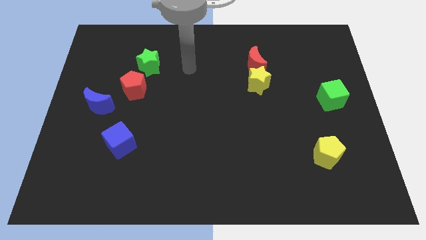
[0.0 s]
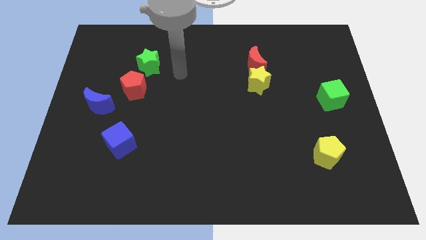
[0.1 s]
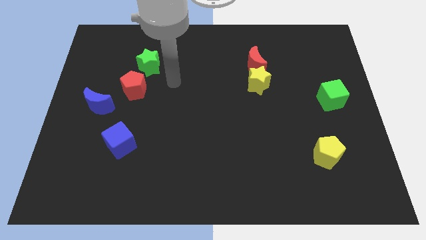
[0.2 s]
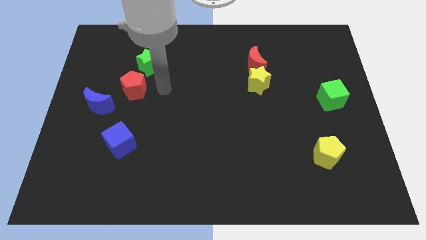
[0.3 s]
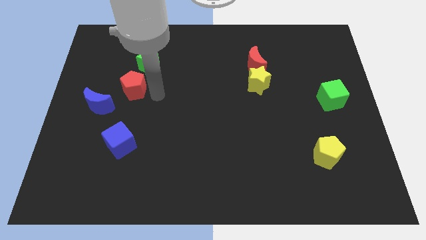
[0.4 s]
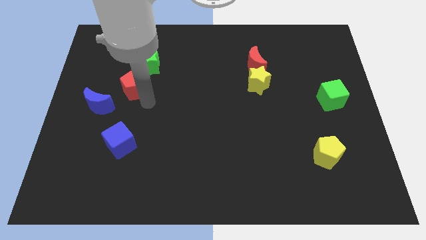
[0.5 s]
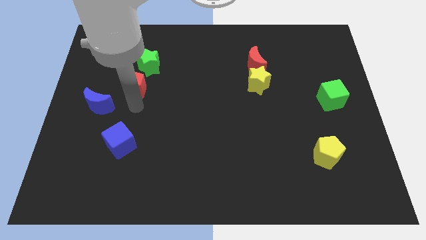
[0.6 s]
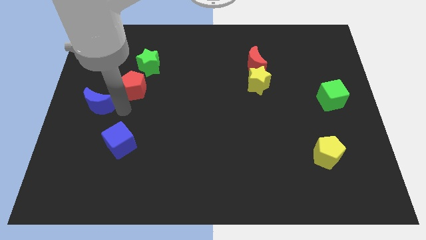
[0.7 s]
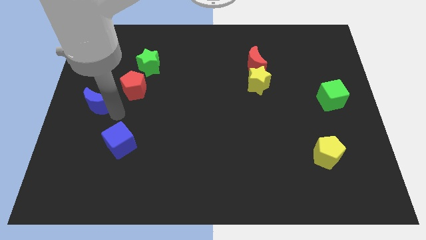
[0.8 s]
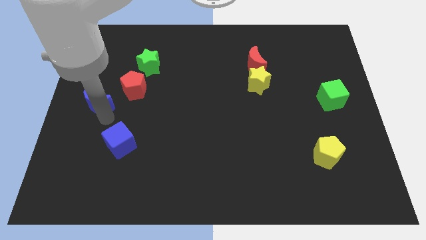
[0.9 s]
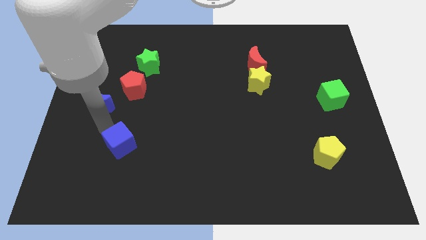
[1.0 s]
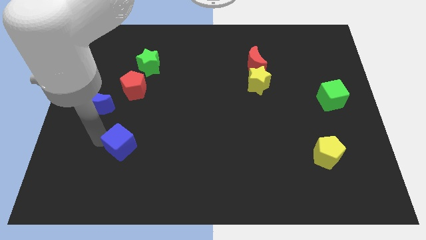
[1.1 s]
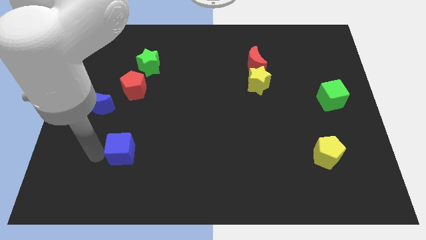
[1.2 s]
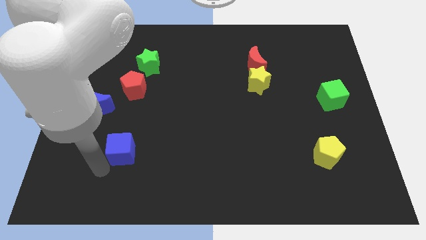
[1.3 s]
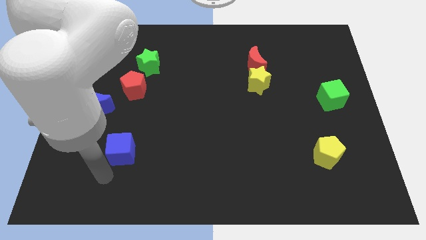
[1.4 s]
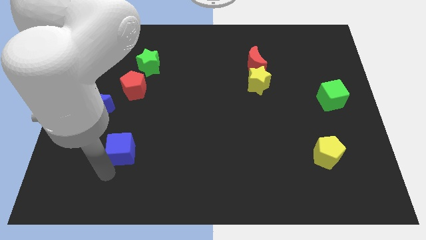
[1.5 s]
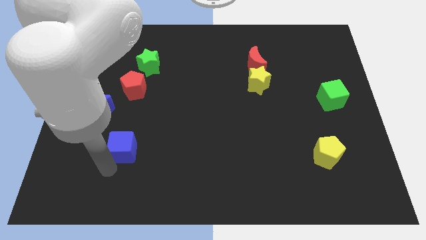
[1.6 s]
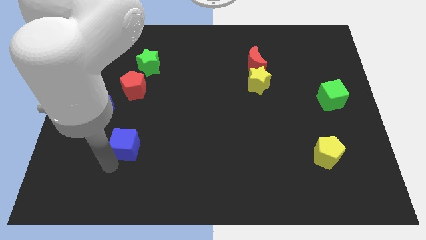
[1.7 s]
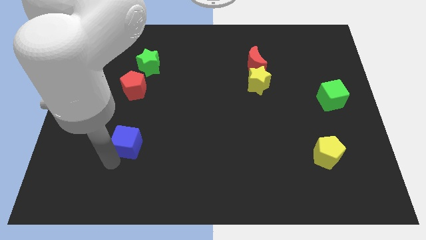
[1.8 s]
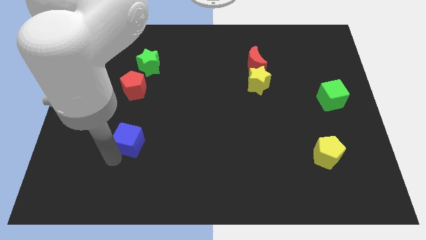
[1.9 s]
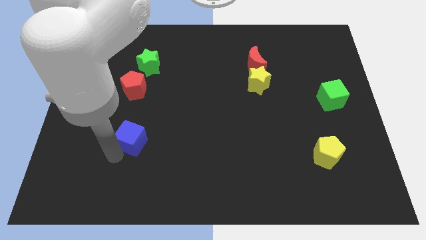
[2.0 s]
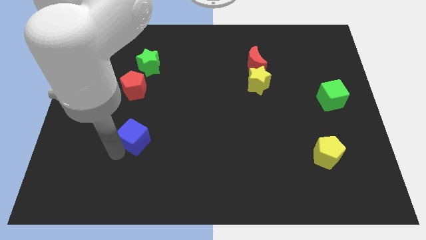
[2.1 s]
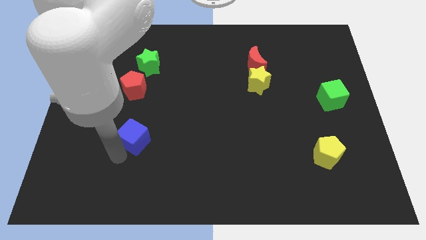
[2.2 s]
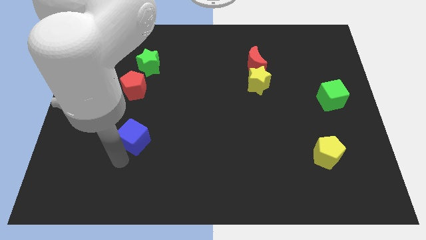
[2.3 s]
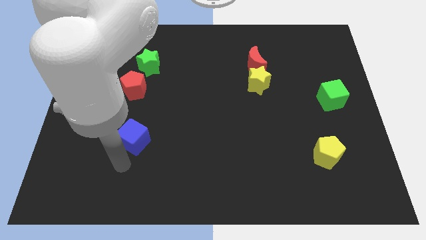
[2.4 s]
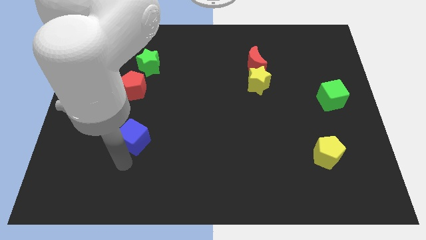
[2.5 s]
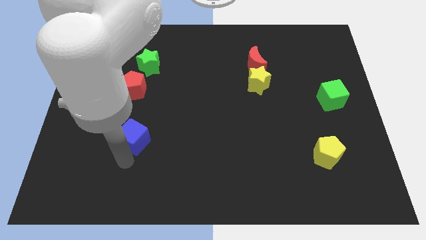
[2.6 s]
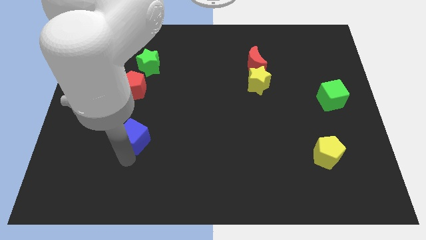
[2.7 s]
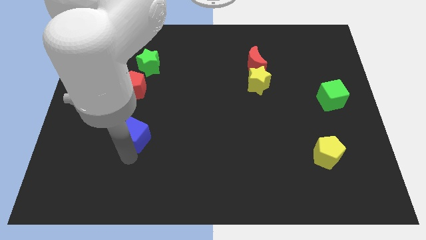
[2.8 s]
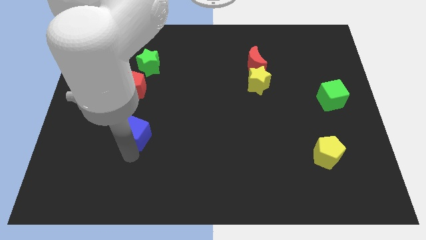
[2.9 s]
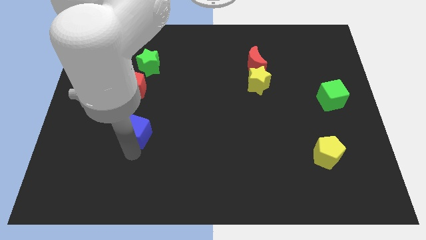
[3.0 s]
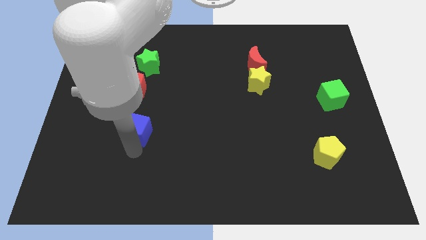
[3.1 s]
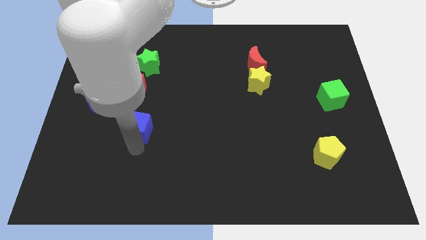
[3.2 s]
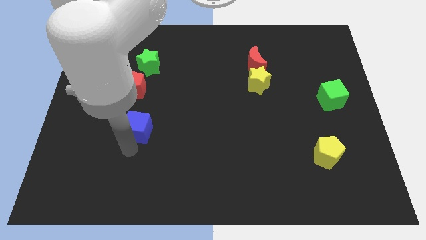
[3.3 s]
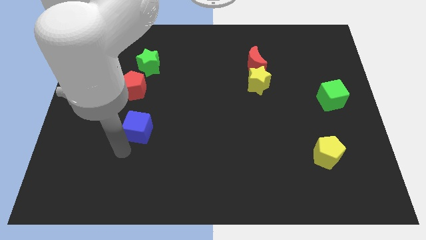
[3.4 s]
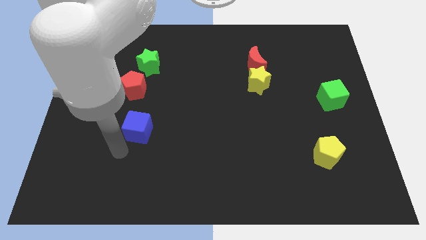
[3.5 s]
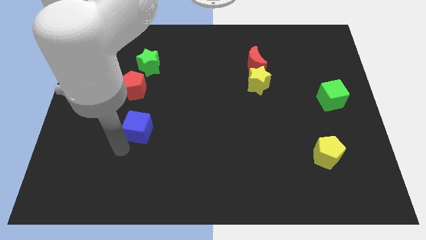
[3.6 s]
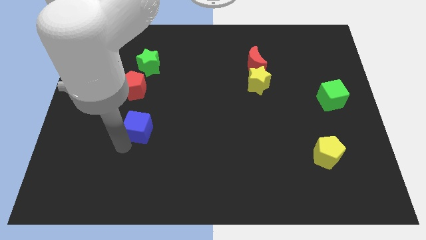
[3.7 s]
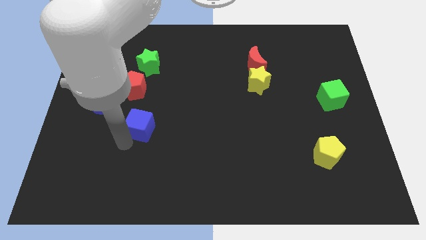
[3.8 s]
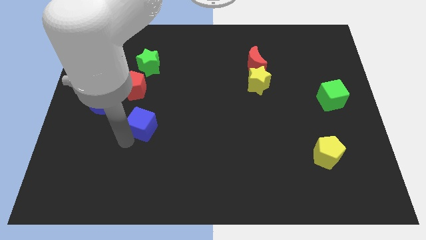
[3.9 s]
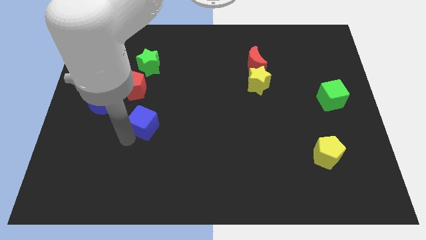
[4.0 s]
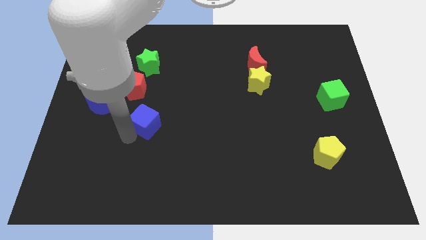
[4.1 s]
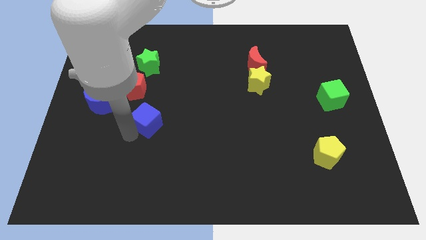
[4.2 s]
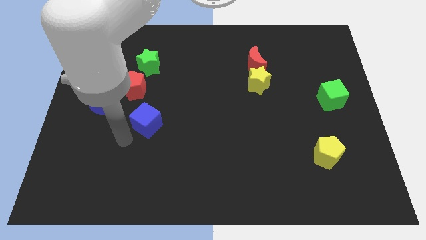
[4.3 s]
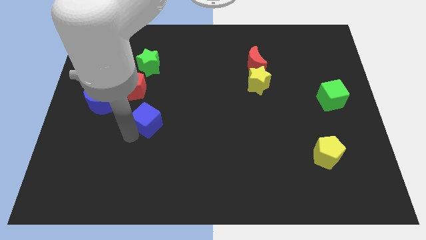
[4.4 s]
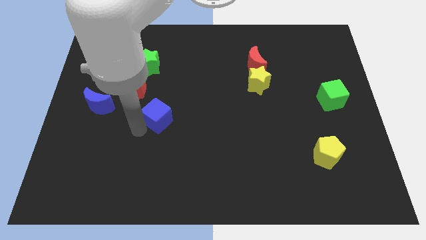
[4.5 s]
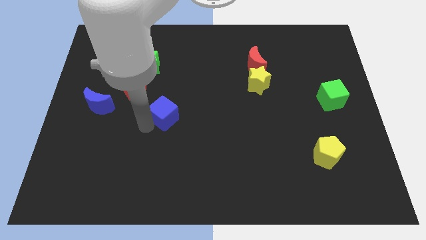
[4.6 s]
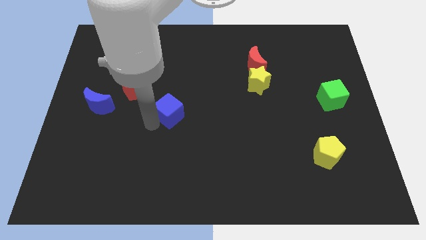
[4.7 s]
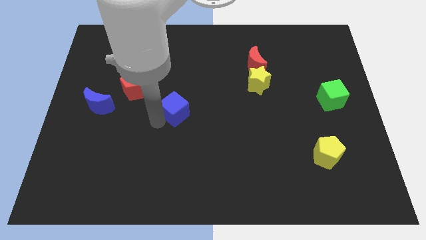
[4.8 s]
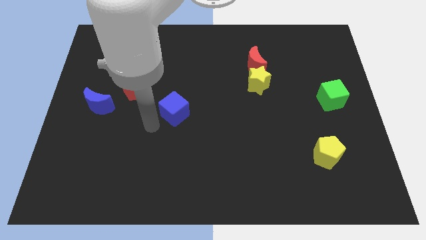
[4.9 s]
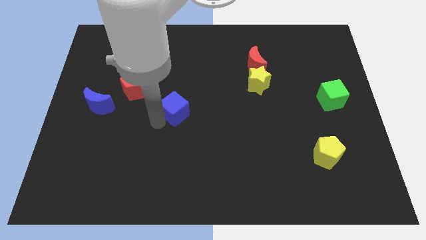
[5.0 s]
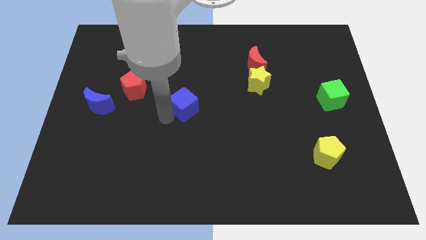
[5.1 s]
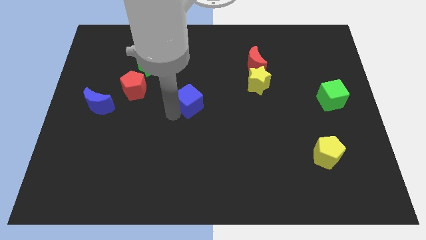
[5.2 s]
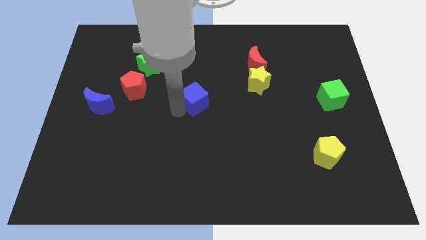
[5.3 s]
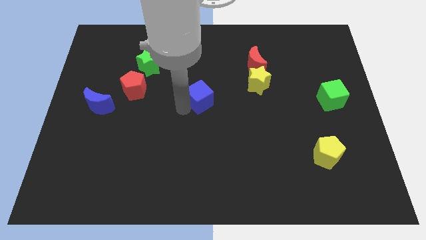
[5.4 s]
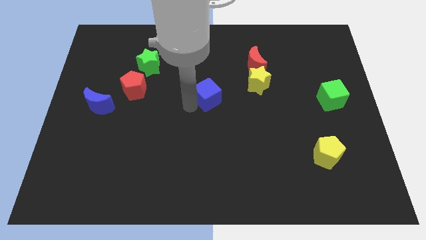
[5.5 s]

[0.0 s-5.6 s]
push the blue cube to the left side of the yellow star

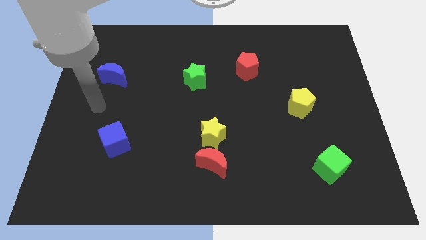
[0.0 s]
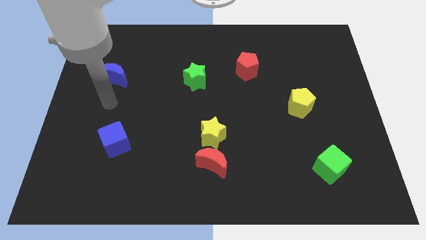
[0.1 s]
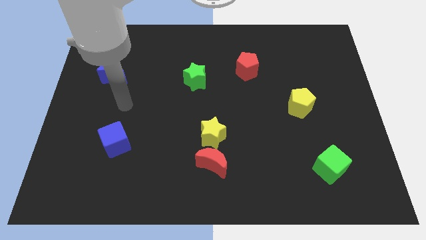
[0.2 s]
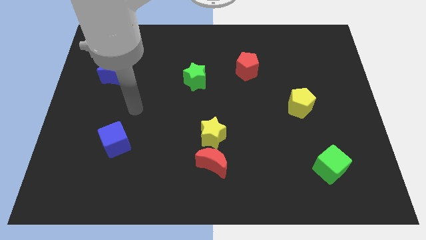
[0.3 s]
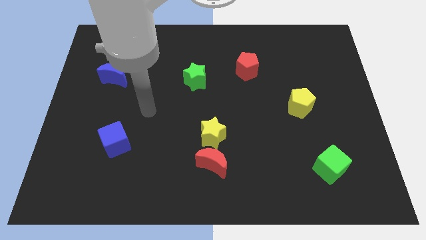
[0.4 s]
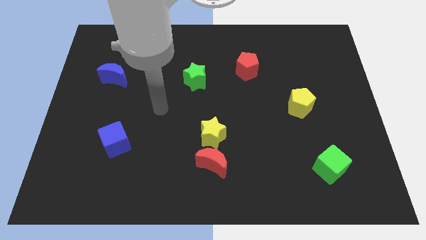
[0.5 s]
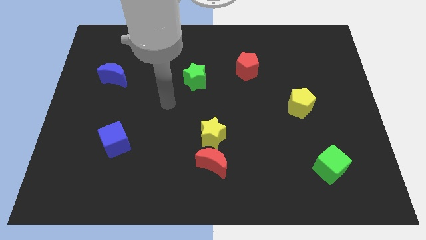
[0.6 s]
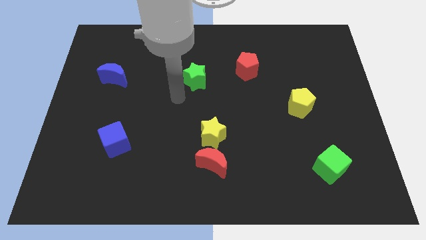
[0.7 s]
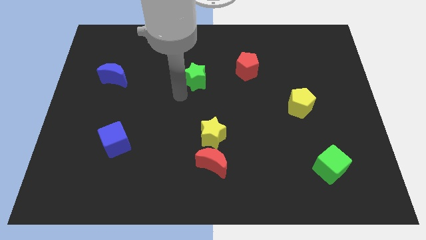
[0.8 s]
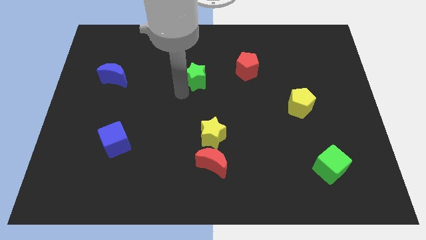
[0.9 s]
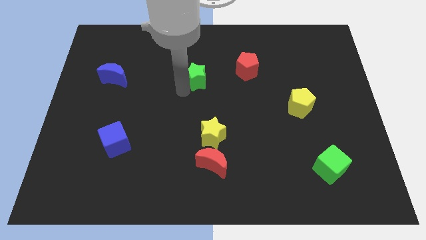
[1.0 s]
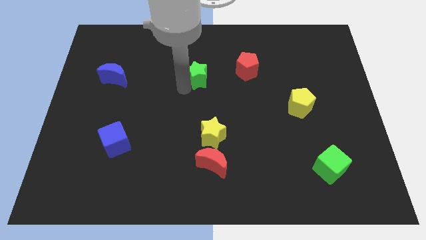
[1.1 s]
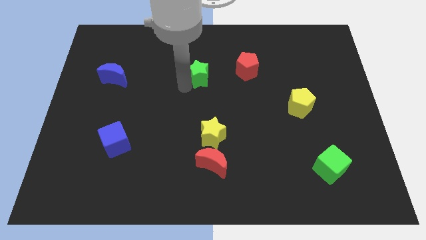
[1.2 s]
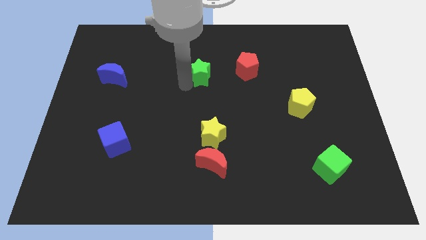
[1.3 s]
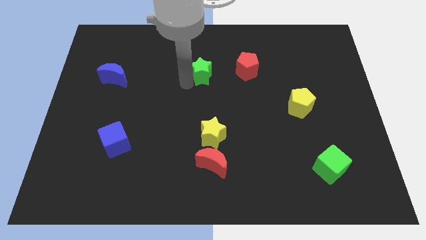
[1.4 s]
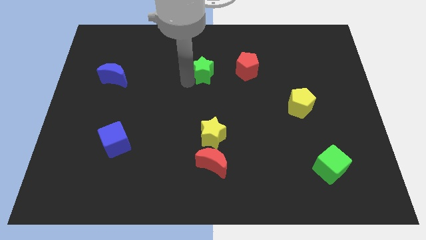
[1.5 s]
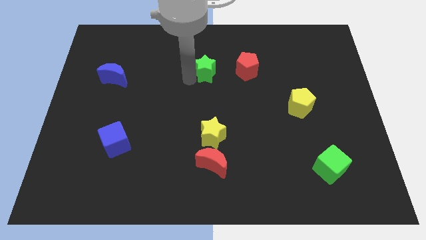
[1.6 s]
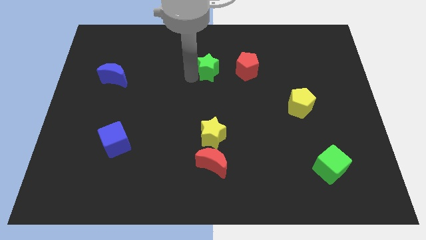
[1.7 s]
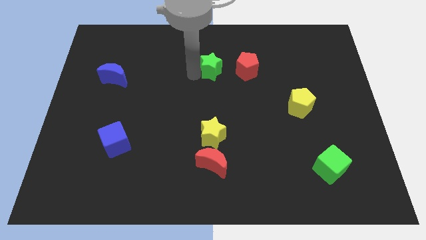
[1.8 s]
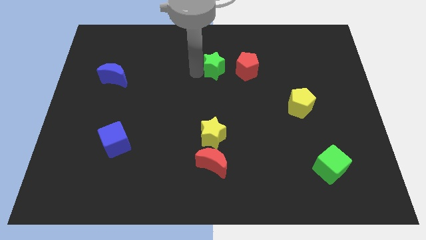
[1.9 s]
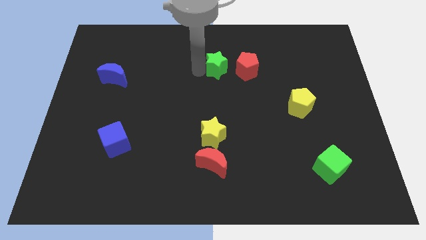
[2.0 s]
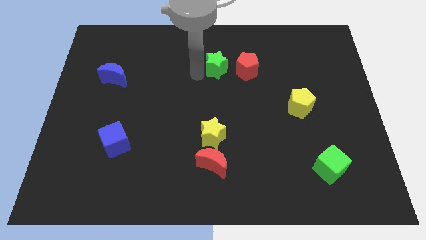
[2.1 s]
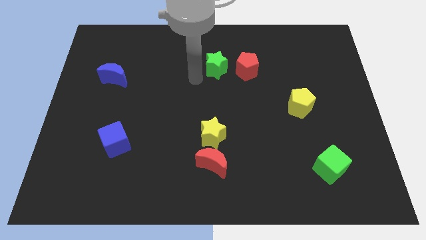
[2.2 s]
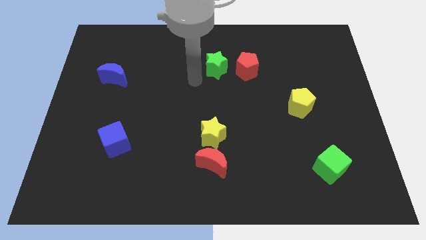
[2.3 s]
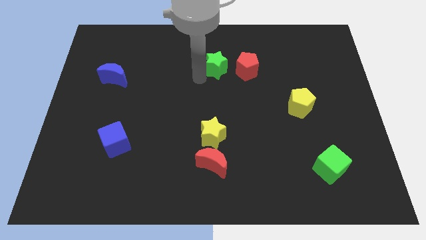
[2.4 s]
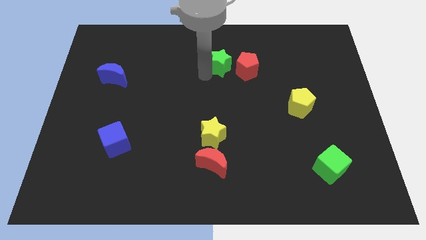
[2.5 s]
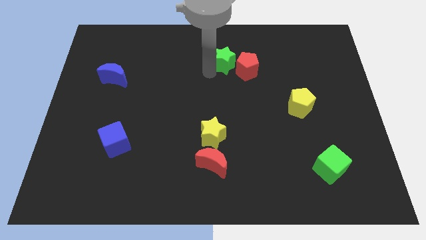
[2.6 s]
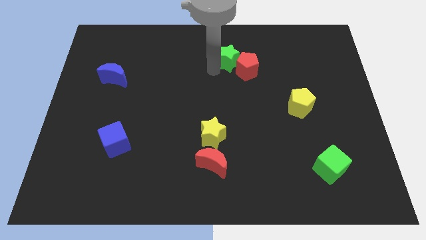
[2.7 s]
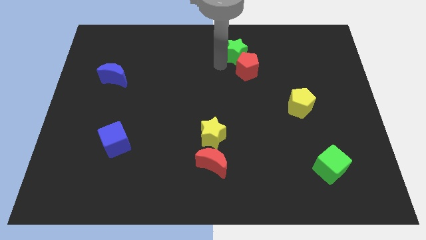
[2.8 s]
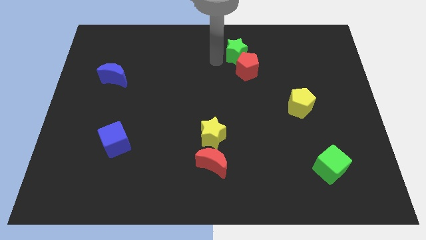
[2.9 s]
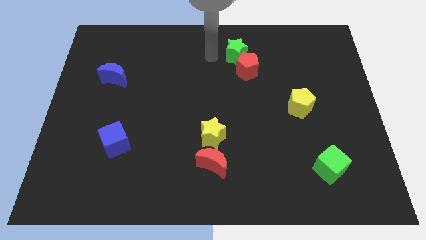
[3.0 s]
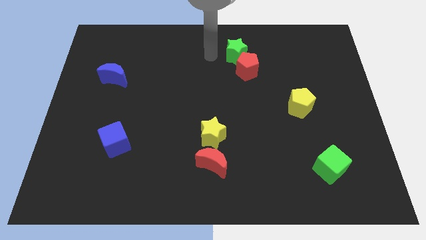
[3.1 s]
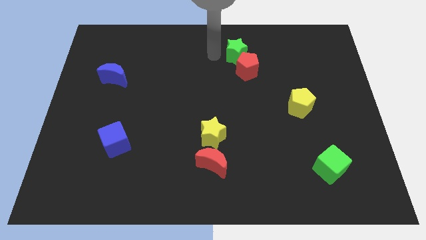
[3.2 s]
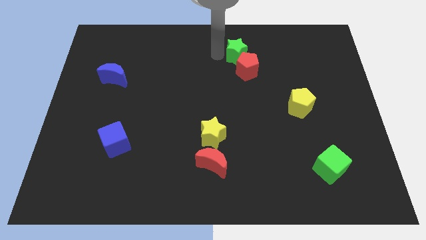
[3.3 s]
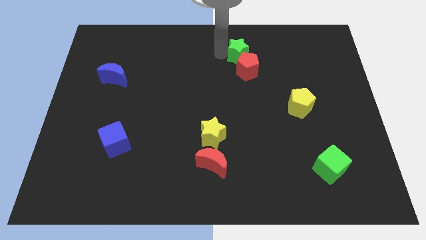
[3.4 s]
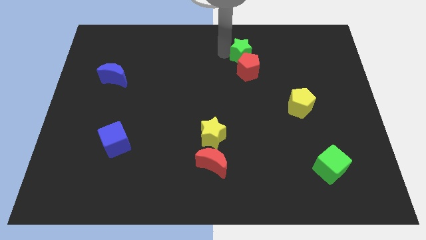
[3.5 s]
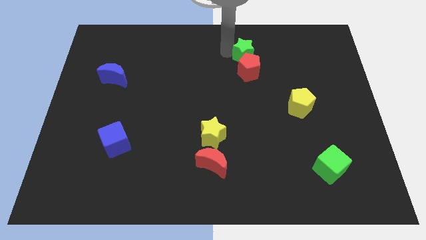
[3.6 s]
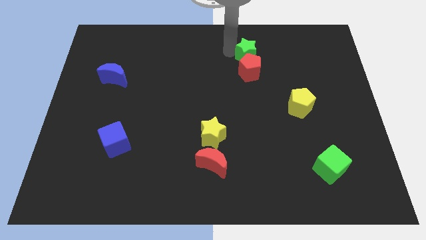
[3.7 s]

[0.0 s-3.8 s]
push the green star to the top right side of the red pentagon
